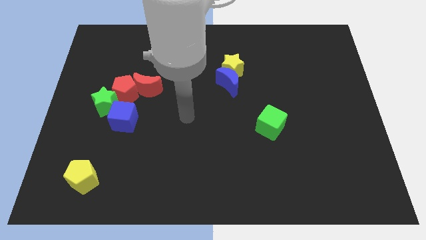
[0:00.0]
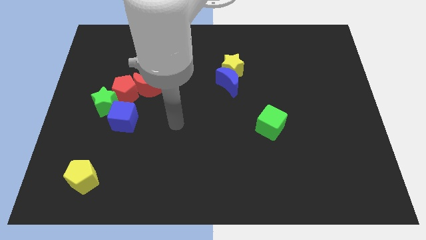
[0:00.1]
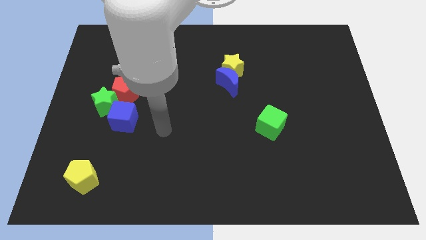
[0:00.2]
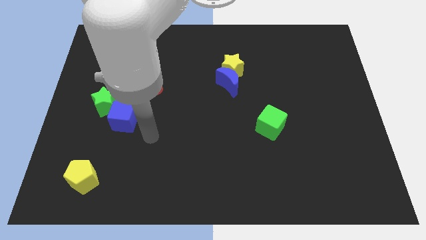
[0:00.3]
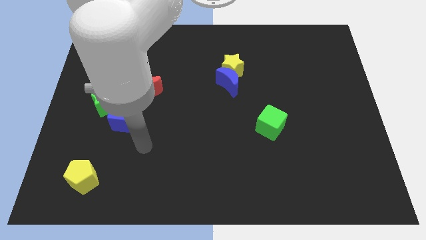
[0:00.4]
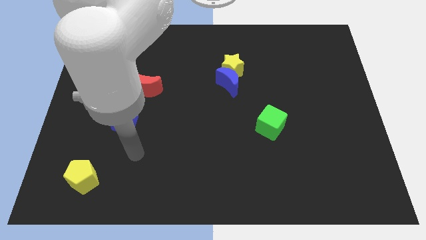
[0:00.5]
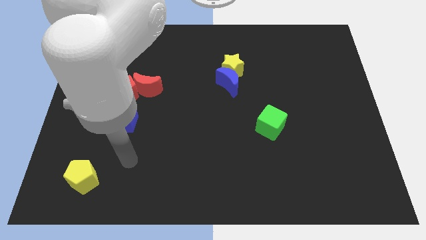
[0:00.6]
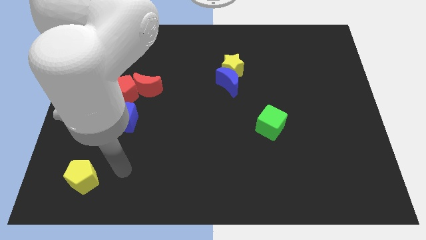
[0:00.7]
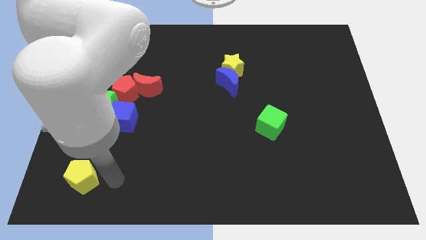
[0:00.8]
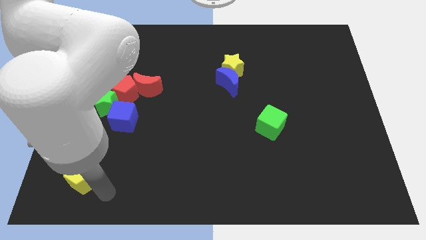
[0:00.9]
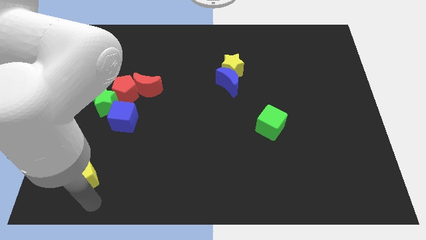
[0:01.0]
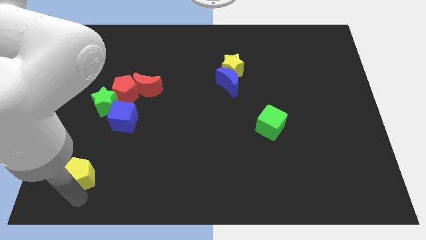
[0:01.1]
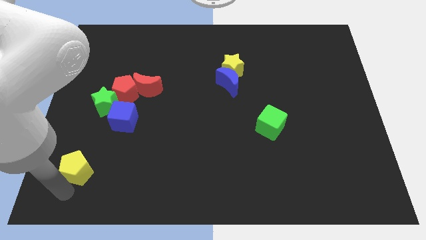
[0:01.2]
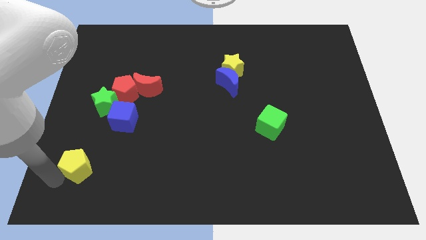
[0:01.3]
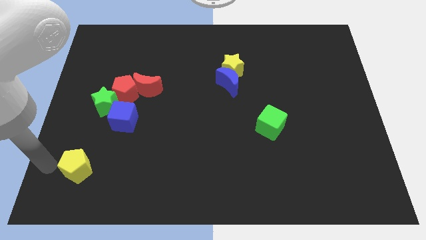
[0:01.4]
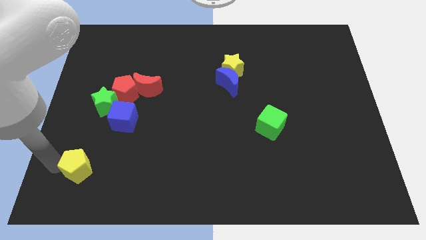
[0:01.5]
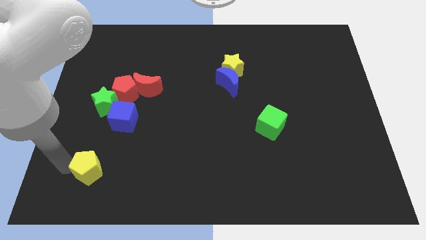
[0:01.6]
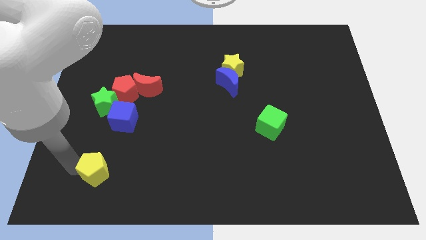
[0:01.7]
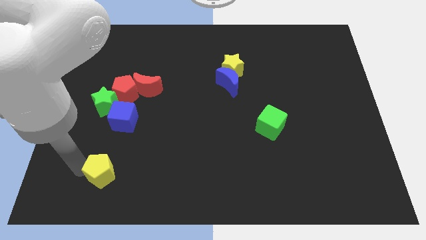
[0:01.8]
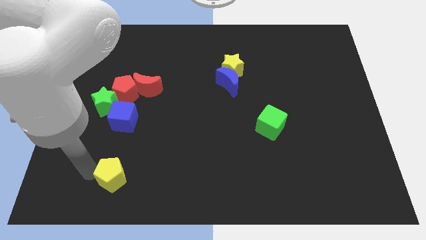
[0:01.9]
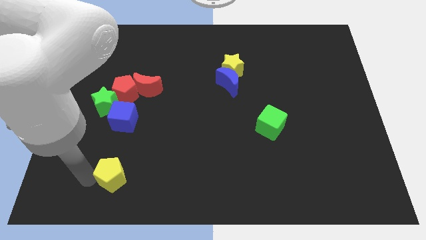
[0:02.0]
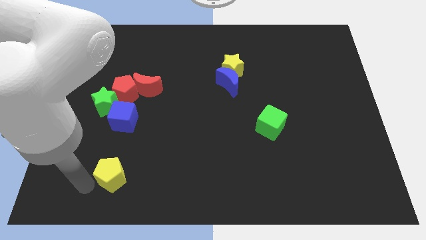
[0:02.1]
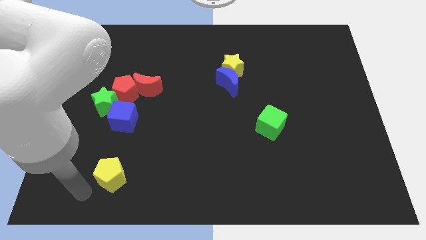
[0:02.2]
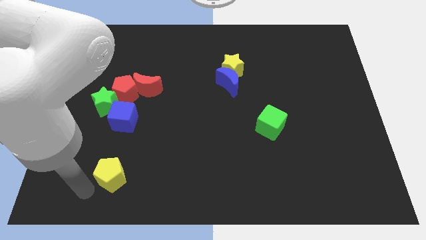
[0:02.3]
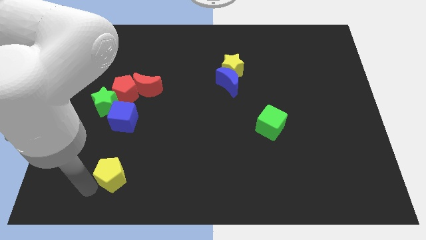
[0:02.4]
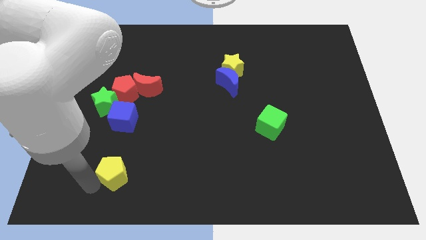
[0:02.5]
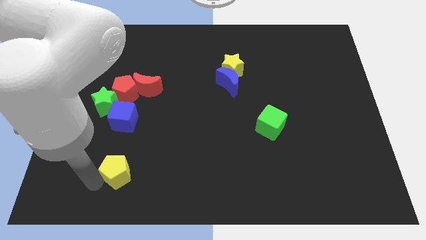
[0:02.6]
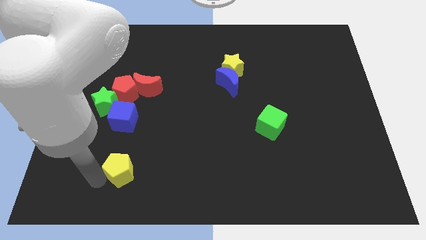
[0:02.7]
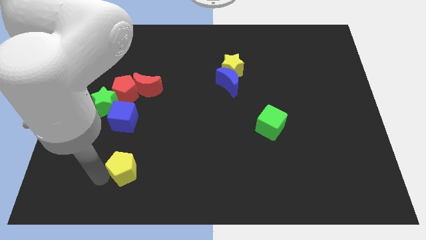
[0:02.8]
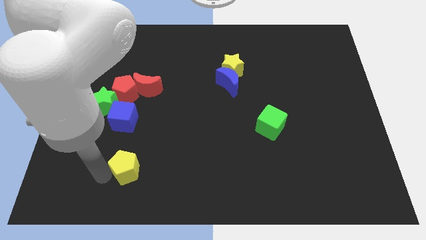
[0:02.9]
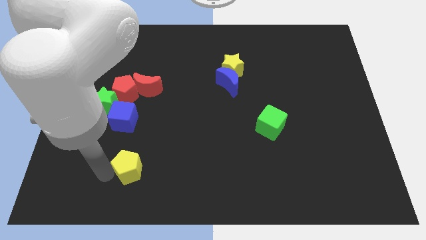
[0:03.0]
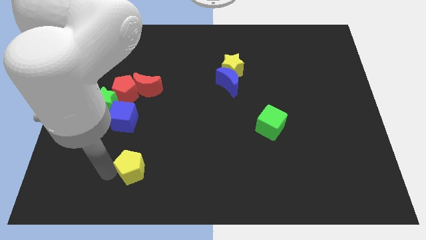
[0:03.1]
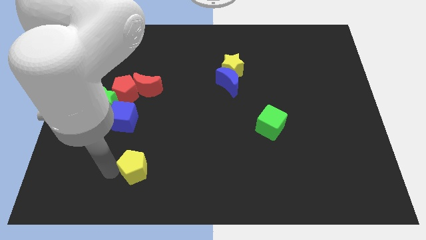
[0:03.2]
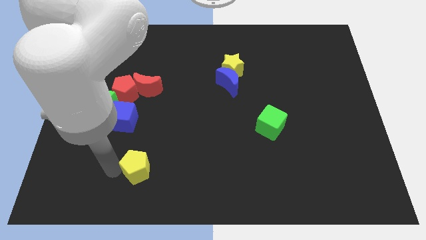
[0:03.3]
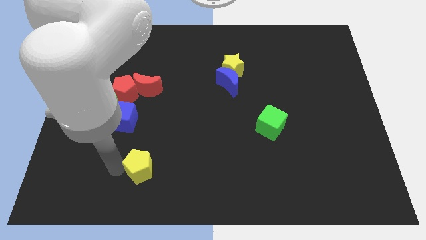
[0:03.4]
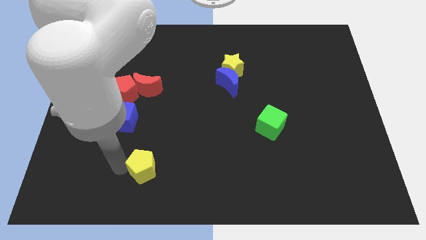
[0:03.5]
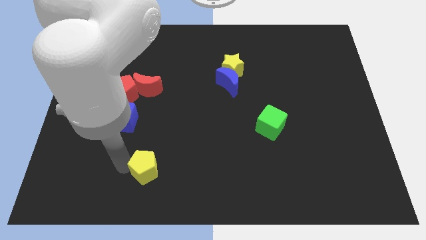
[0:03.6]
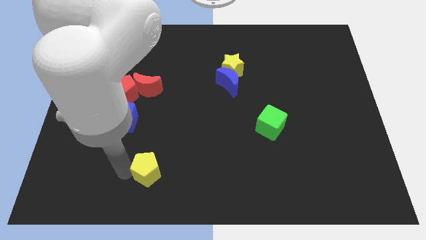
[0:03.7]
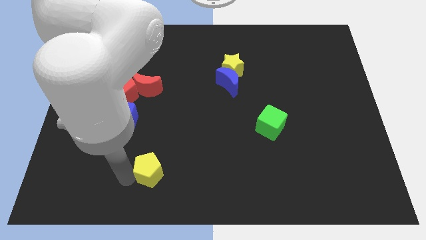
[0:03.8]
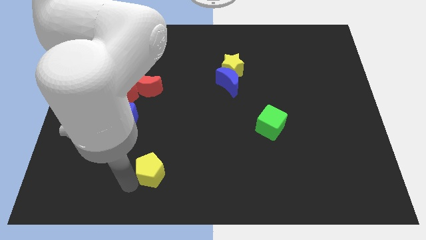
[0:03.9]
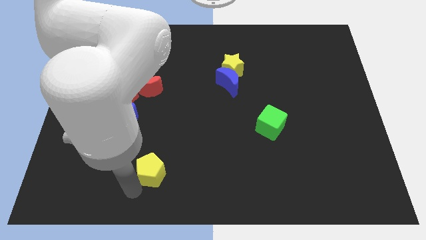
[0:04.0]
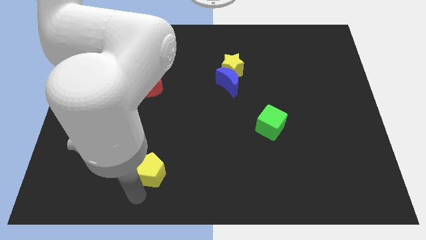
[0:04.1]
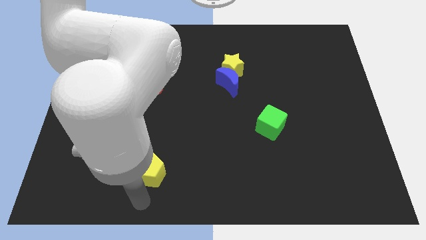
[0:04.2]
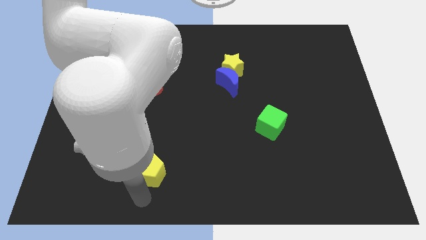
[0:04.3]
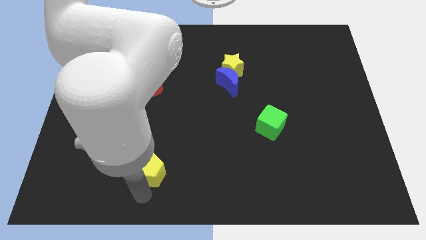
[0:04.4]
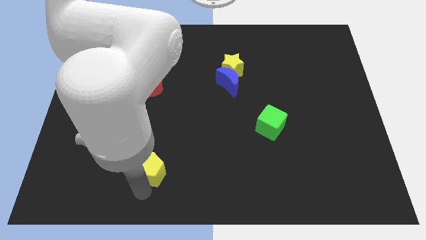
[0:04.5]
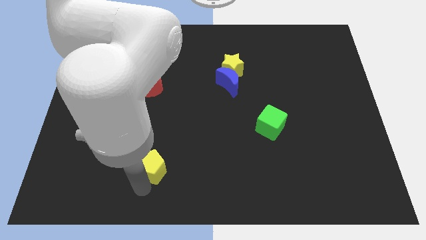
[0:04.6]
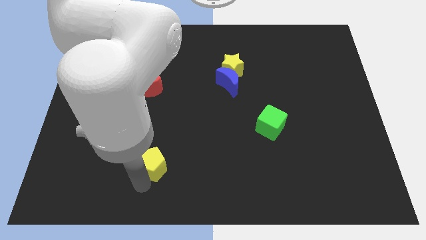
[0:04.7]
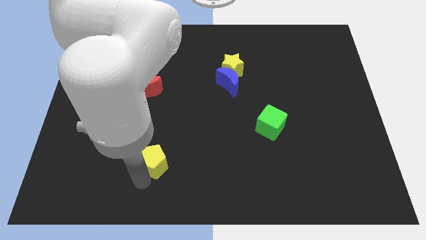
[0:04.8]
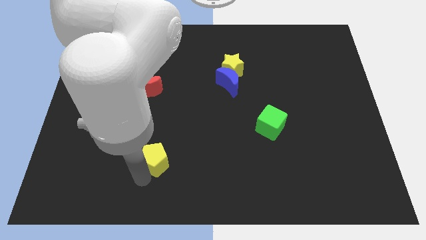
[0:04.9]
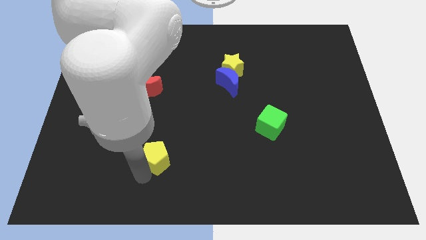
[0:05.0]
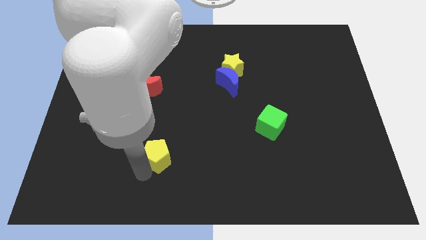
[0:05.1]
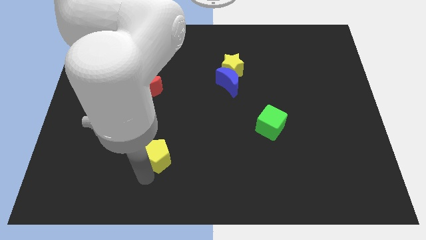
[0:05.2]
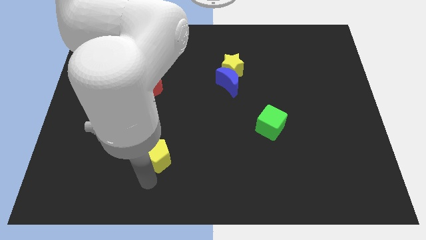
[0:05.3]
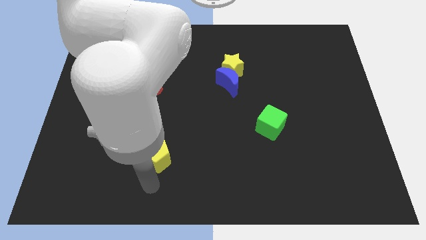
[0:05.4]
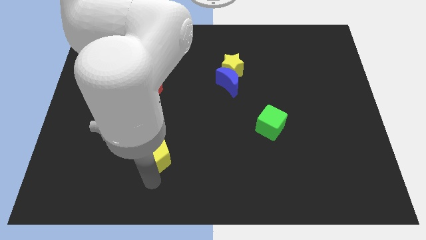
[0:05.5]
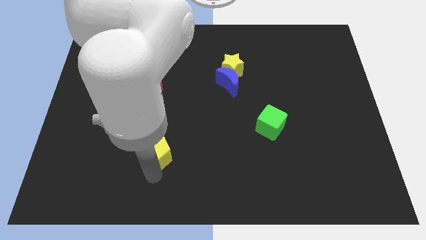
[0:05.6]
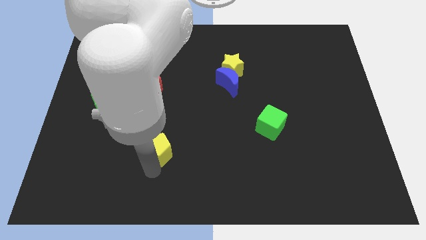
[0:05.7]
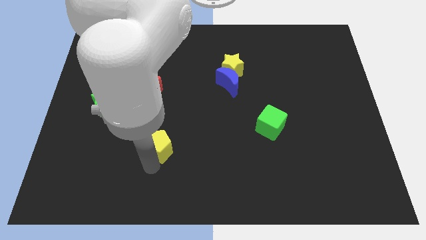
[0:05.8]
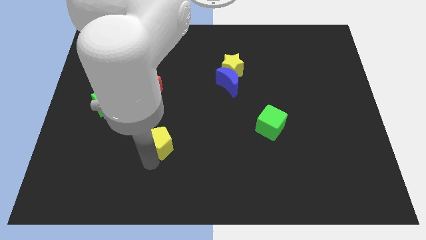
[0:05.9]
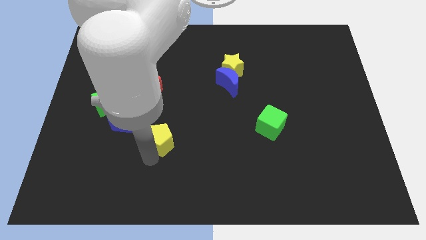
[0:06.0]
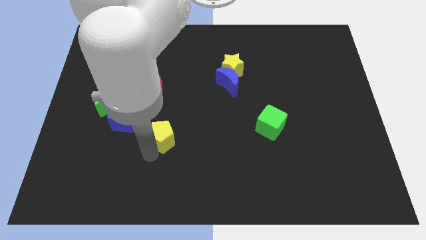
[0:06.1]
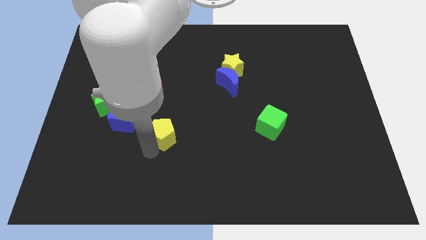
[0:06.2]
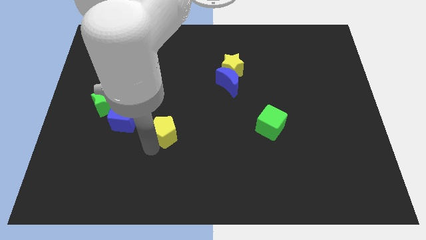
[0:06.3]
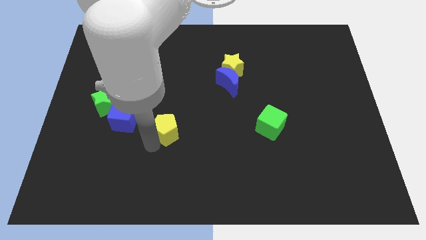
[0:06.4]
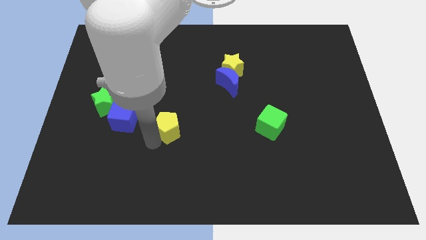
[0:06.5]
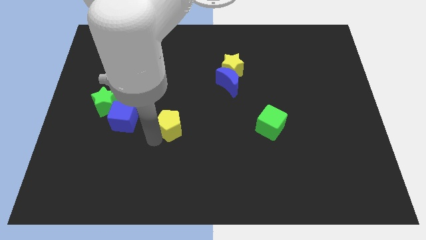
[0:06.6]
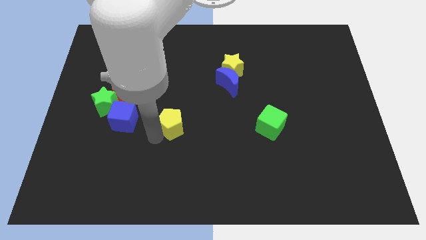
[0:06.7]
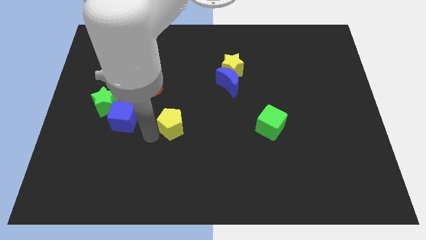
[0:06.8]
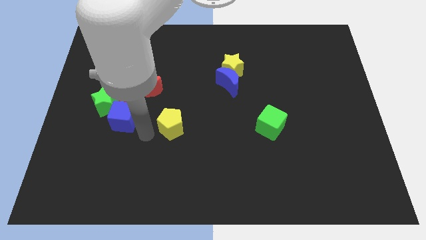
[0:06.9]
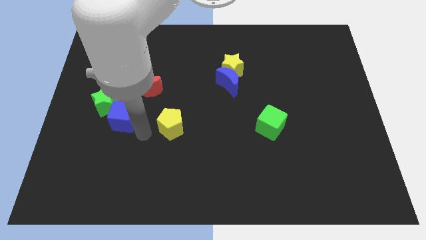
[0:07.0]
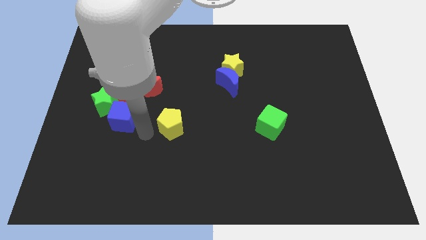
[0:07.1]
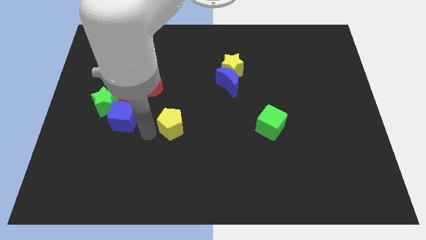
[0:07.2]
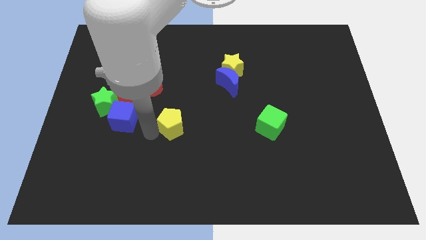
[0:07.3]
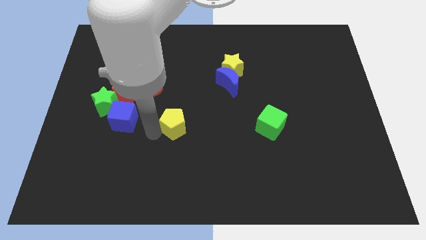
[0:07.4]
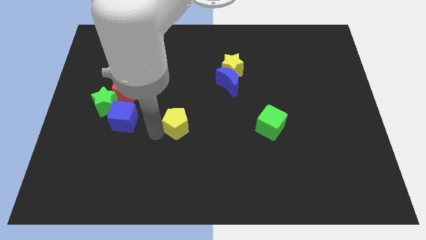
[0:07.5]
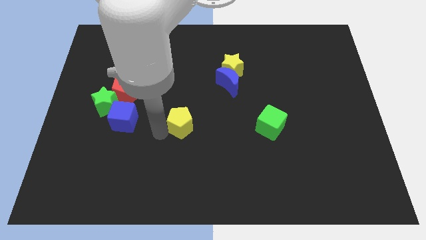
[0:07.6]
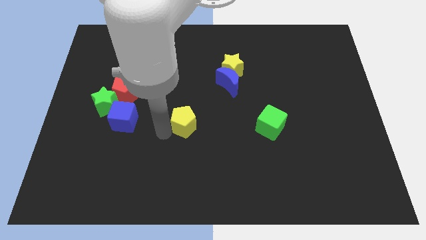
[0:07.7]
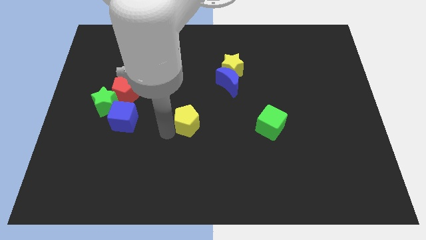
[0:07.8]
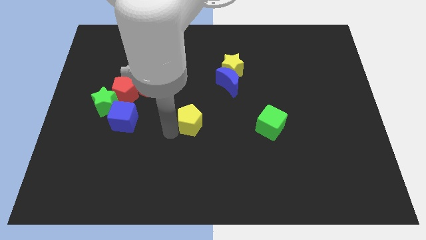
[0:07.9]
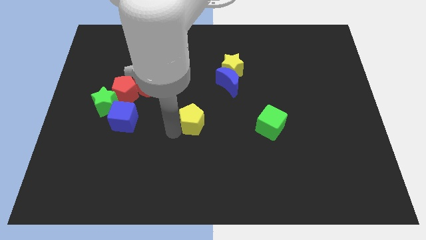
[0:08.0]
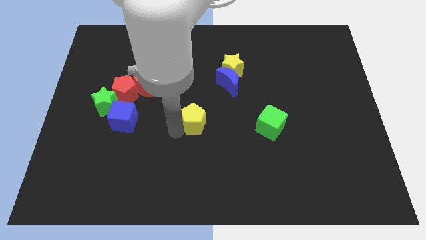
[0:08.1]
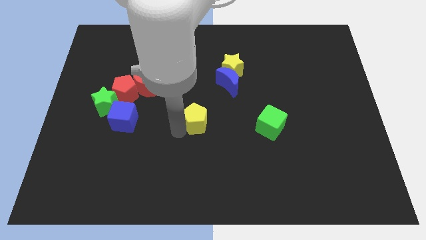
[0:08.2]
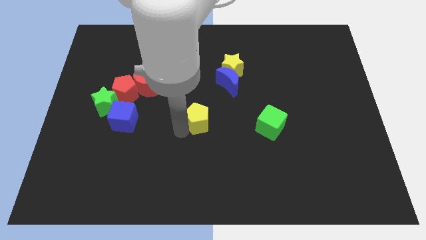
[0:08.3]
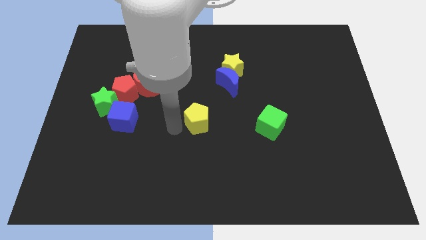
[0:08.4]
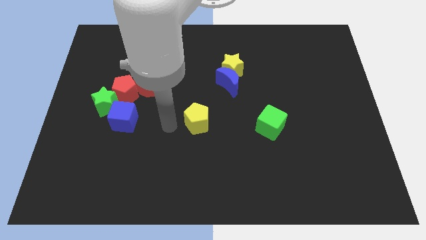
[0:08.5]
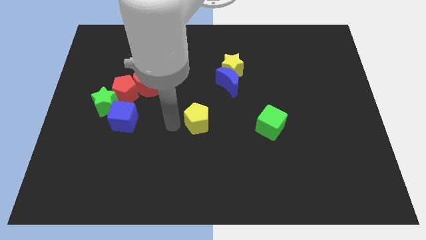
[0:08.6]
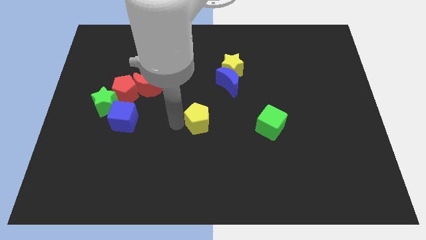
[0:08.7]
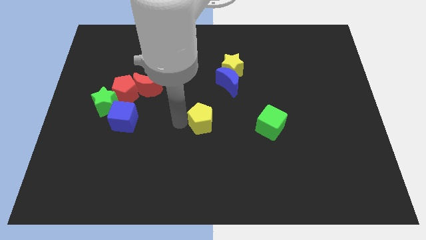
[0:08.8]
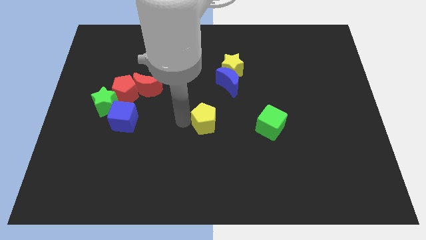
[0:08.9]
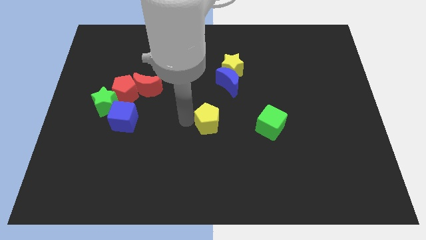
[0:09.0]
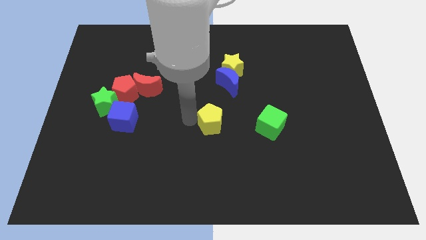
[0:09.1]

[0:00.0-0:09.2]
push the yellow pentagon to the bottom of the blue moon
